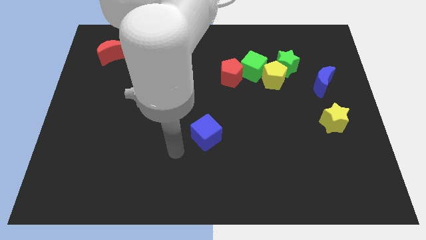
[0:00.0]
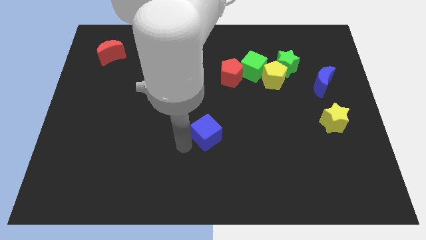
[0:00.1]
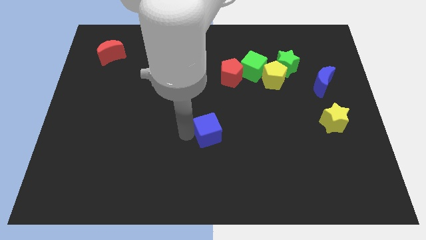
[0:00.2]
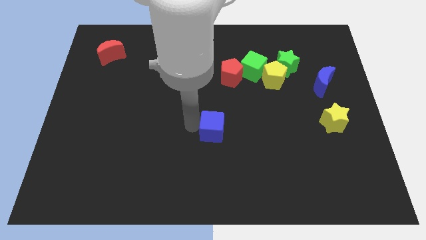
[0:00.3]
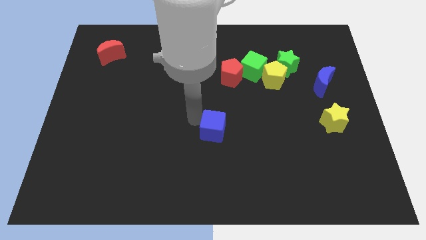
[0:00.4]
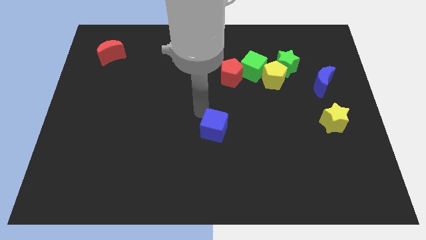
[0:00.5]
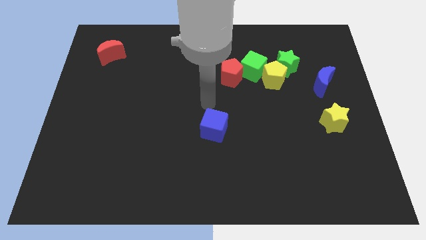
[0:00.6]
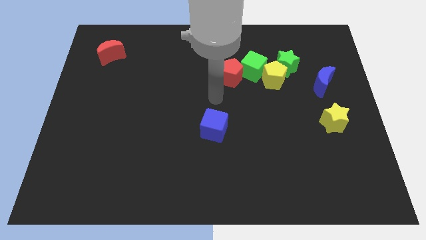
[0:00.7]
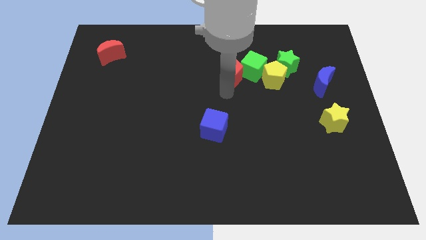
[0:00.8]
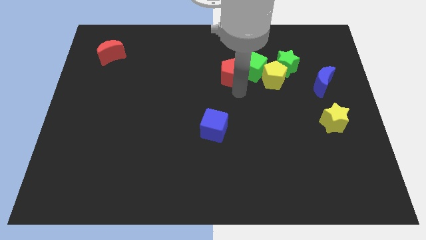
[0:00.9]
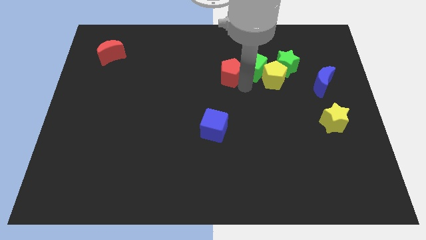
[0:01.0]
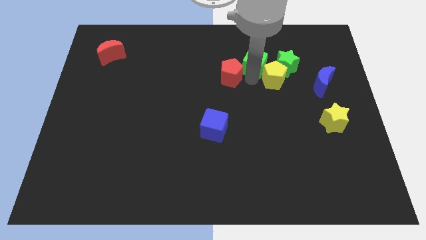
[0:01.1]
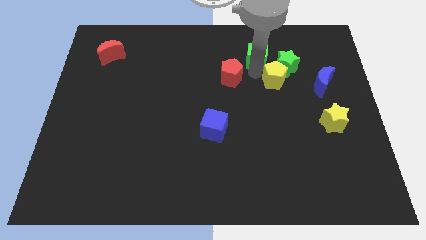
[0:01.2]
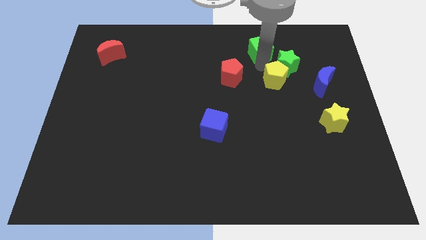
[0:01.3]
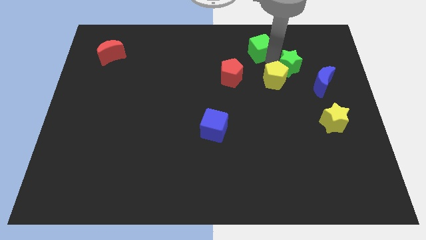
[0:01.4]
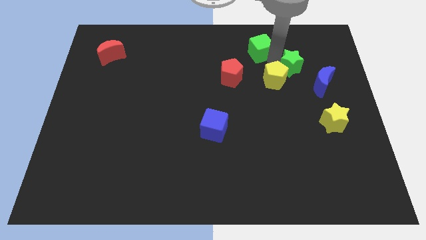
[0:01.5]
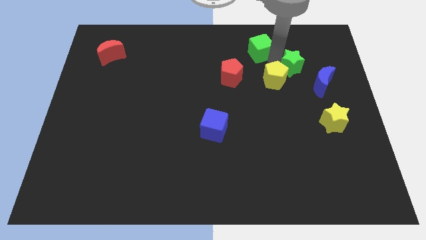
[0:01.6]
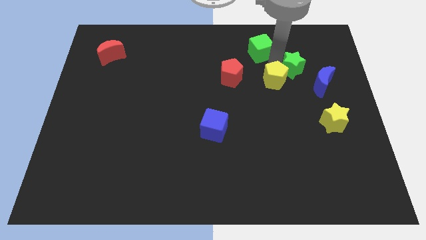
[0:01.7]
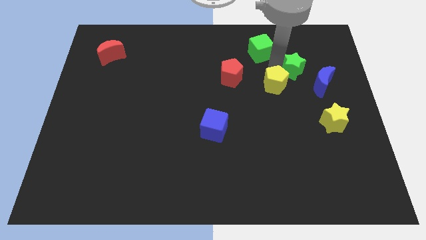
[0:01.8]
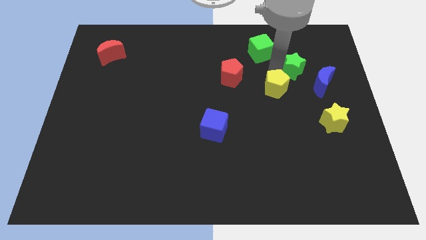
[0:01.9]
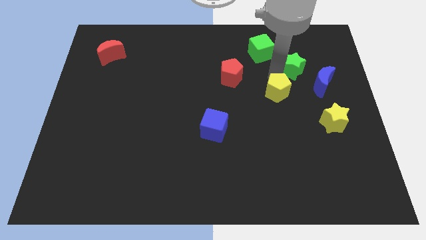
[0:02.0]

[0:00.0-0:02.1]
move the yellow pentagon away from the green star and green cube

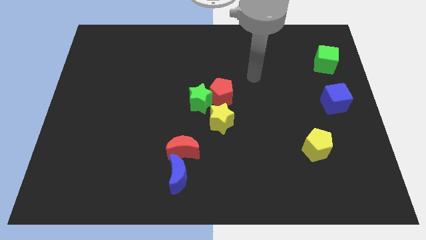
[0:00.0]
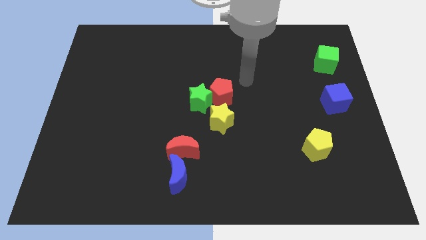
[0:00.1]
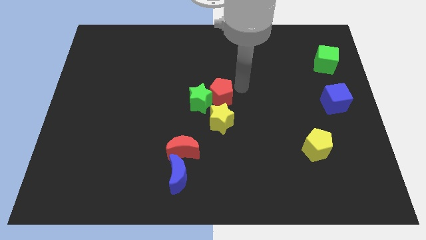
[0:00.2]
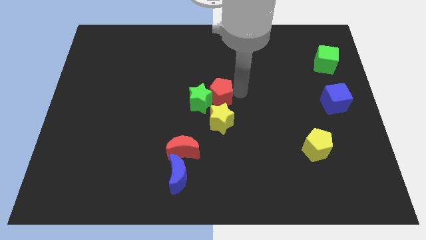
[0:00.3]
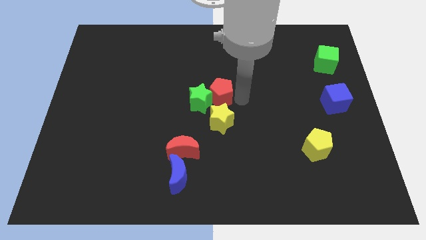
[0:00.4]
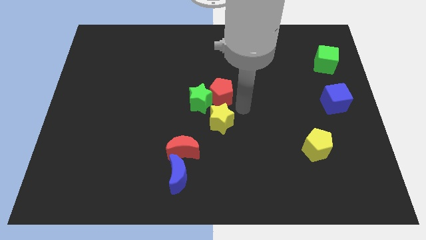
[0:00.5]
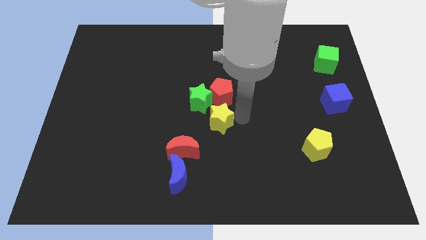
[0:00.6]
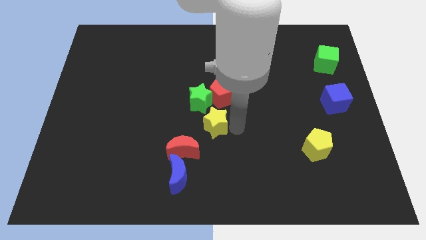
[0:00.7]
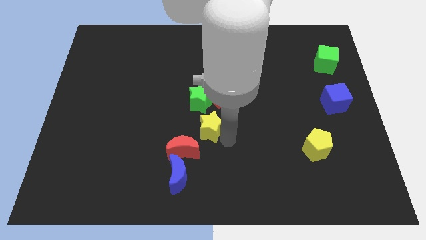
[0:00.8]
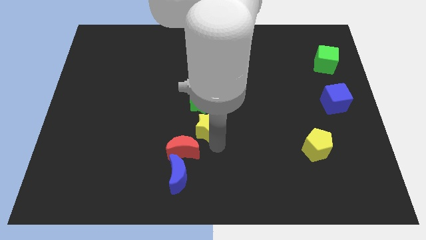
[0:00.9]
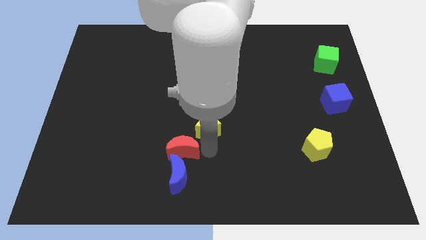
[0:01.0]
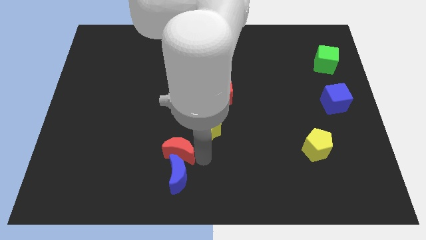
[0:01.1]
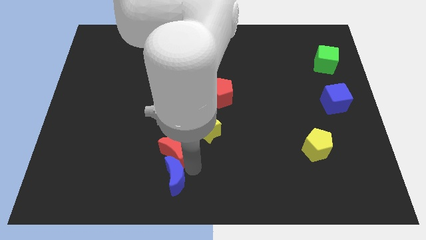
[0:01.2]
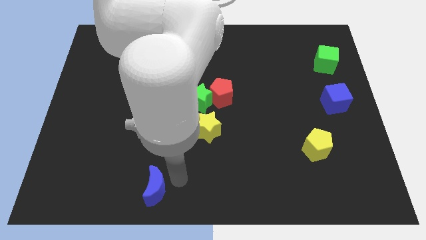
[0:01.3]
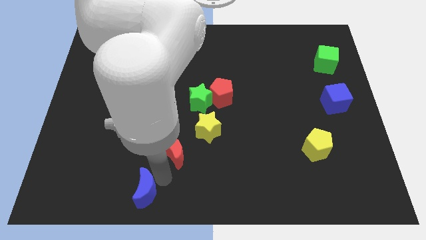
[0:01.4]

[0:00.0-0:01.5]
separate the red moon from the blue moon

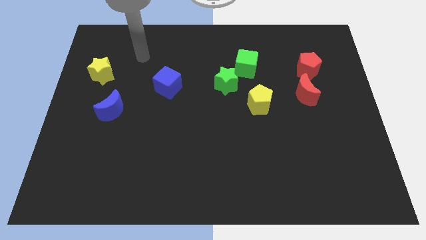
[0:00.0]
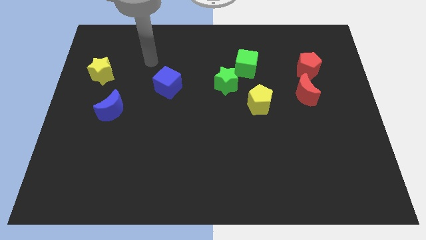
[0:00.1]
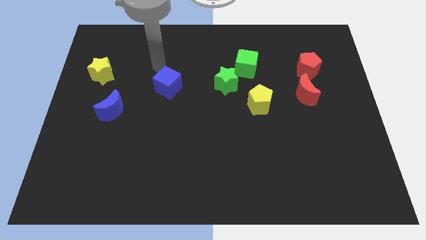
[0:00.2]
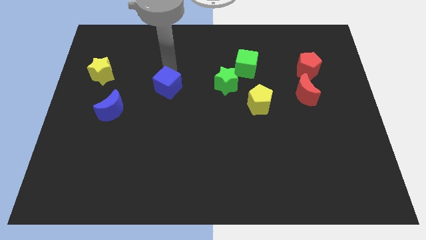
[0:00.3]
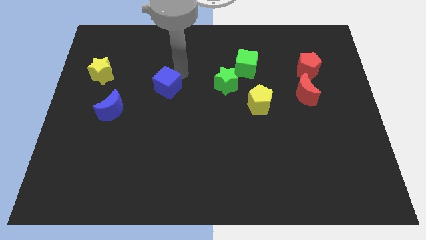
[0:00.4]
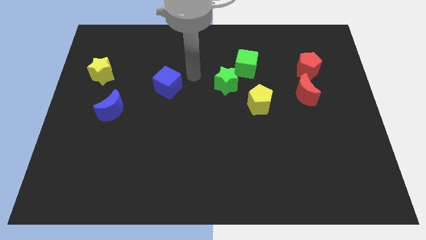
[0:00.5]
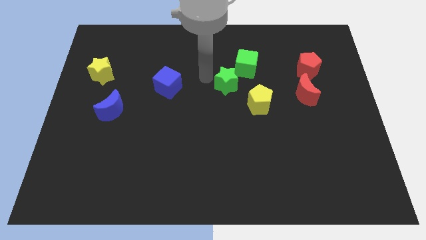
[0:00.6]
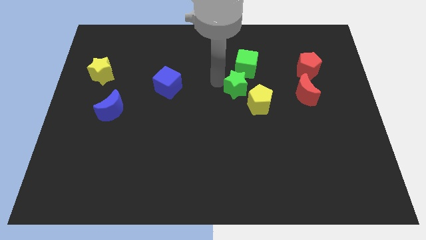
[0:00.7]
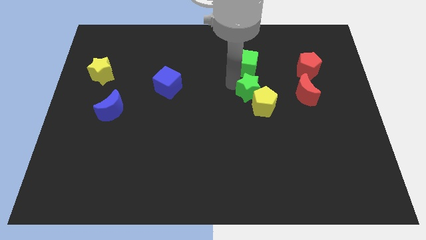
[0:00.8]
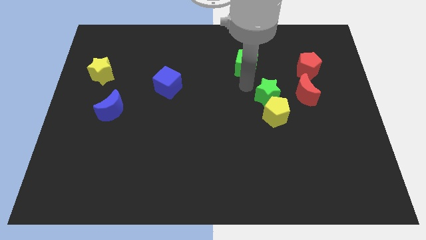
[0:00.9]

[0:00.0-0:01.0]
pull the green cube apart from the green star

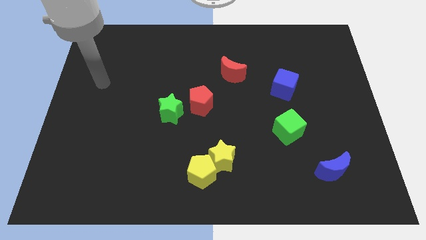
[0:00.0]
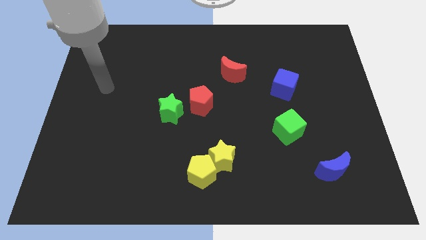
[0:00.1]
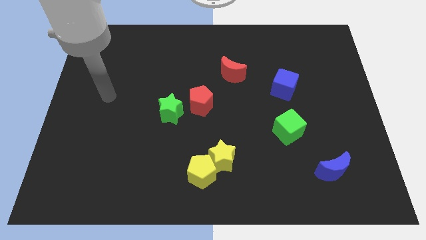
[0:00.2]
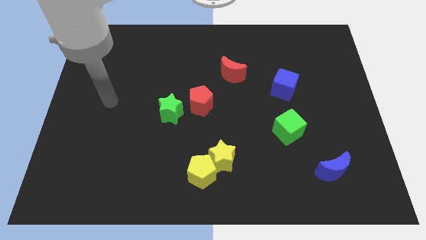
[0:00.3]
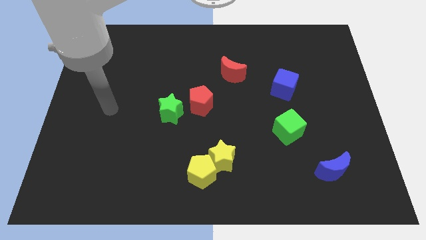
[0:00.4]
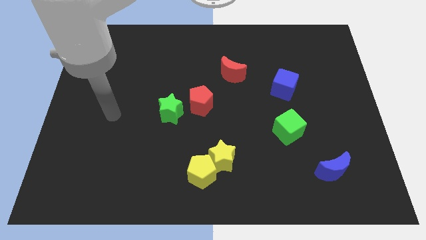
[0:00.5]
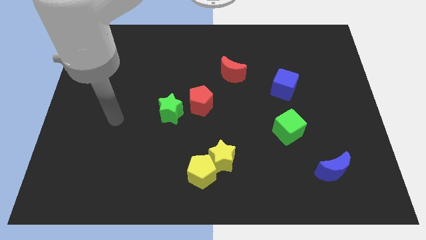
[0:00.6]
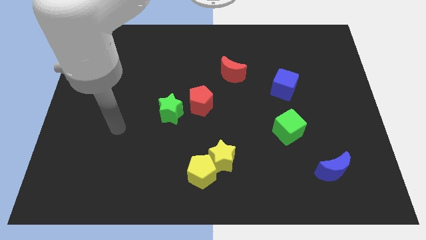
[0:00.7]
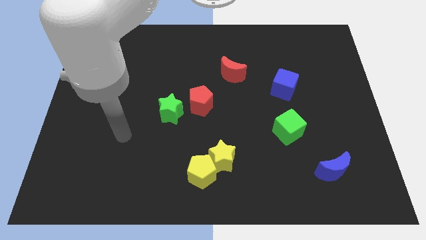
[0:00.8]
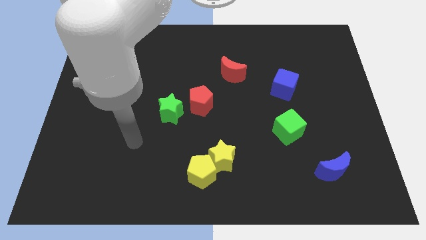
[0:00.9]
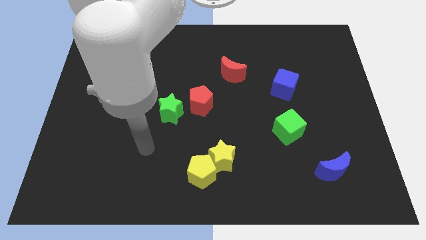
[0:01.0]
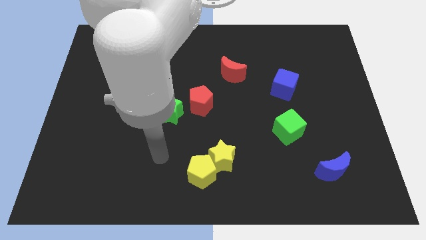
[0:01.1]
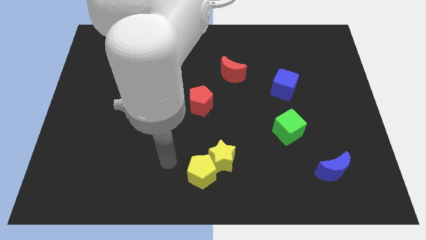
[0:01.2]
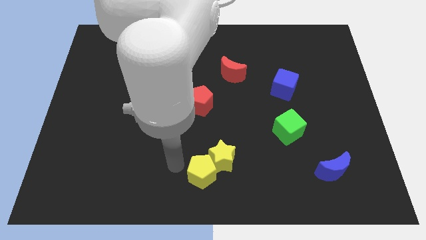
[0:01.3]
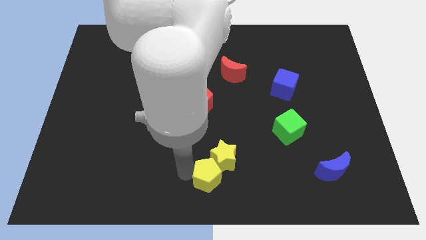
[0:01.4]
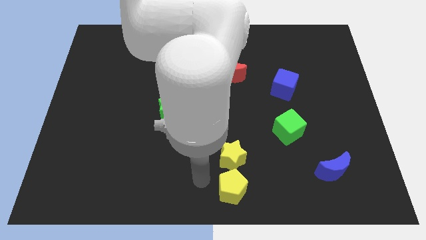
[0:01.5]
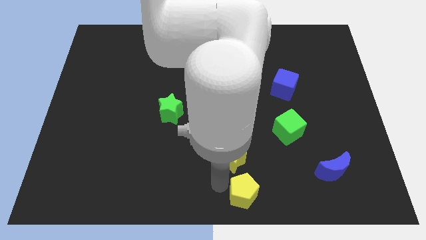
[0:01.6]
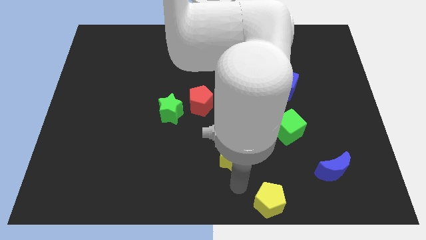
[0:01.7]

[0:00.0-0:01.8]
pull the yellow star apart from the yellow pentagon

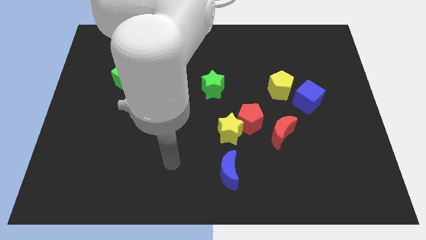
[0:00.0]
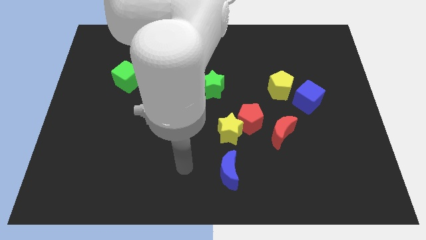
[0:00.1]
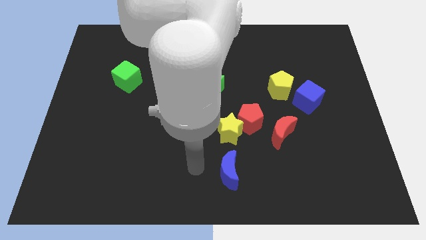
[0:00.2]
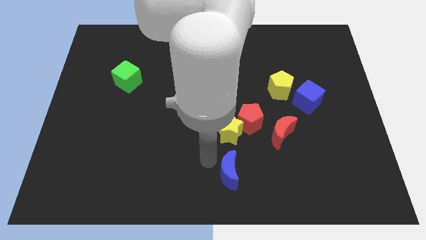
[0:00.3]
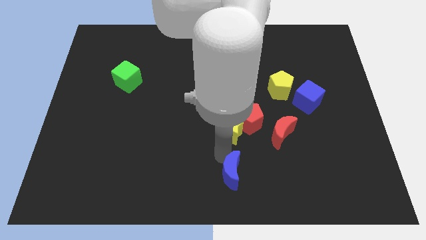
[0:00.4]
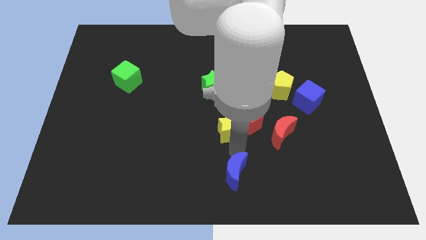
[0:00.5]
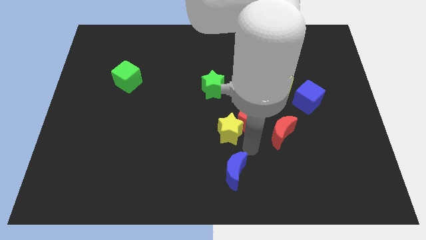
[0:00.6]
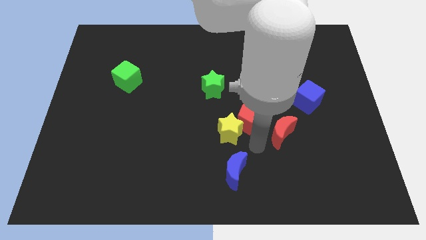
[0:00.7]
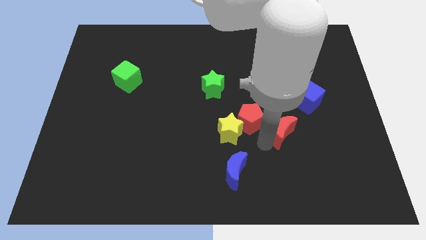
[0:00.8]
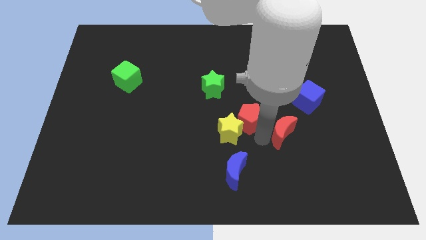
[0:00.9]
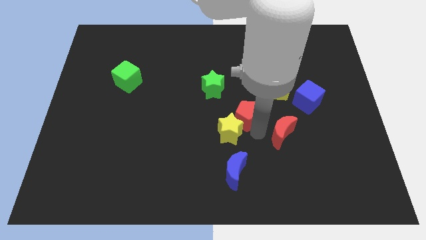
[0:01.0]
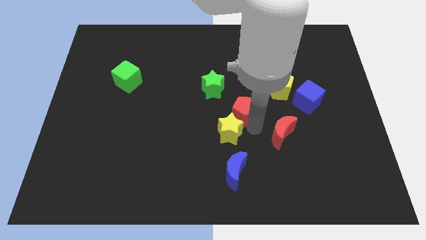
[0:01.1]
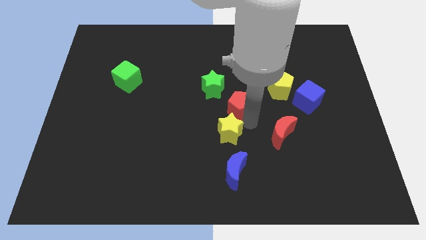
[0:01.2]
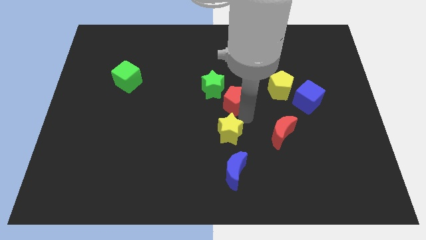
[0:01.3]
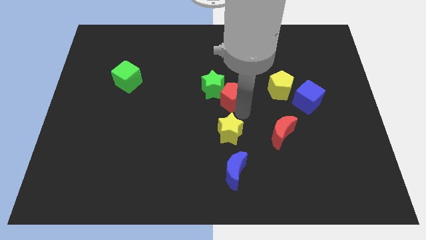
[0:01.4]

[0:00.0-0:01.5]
move the red pentagon away from the yellow star and red moon

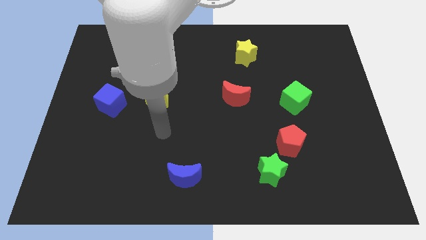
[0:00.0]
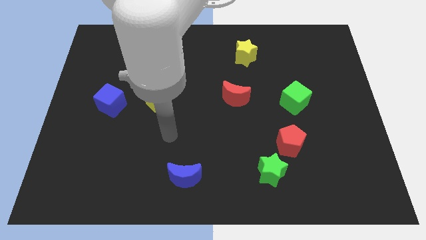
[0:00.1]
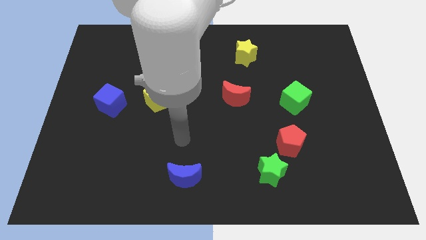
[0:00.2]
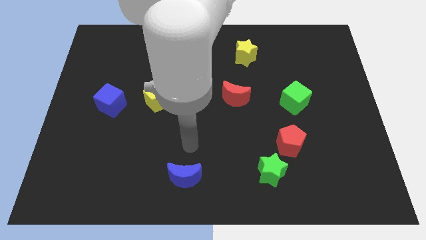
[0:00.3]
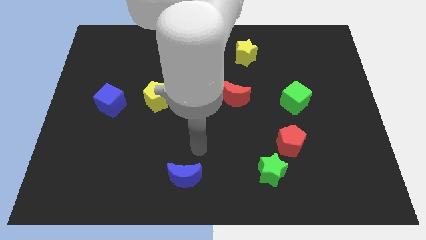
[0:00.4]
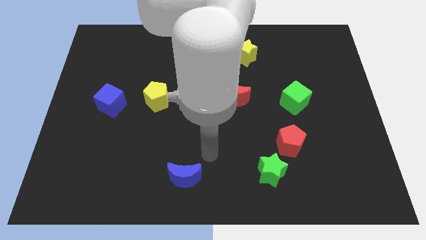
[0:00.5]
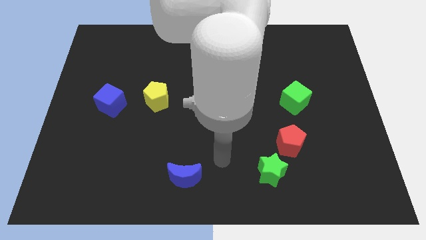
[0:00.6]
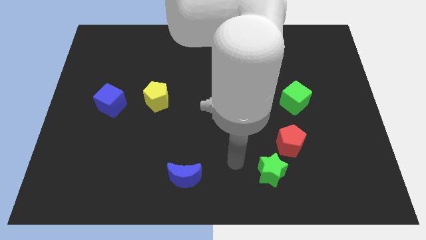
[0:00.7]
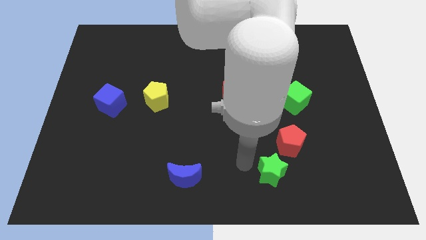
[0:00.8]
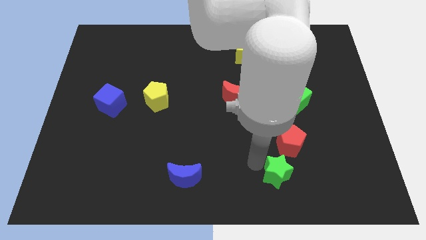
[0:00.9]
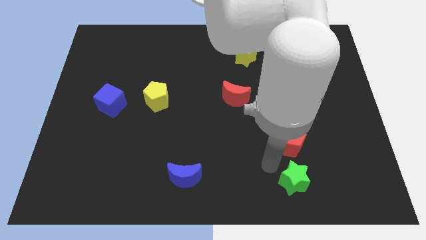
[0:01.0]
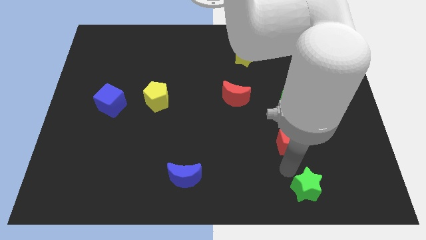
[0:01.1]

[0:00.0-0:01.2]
pull the red pentagon apart from the green star

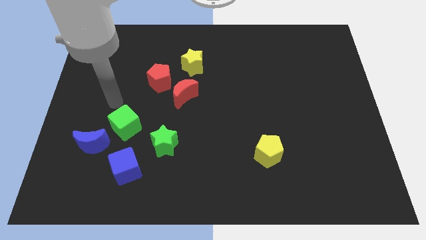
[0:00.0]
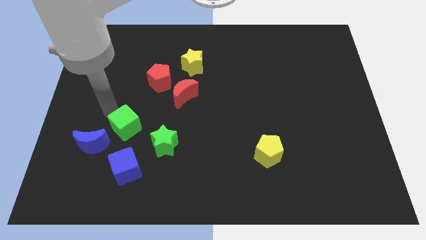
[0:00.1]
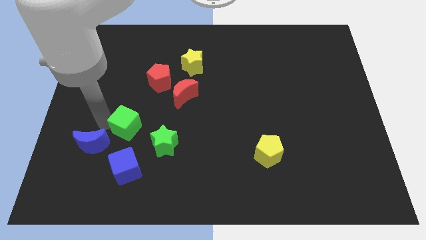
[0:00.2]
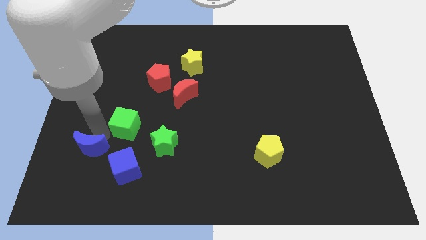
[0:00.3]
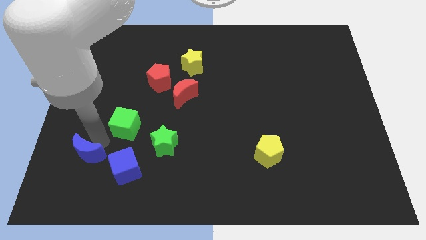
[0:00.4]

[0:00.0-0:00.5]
pull the green cube apart from the blue moon
